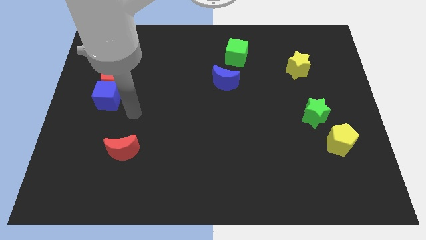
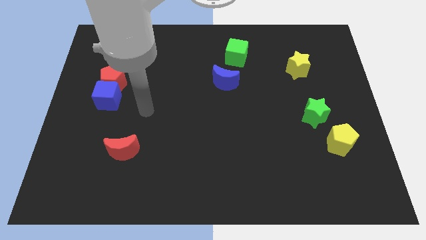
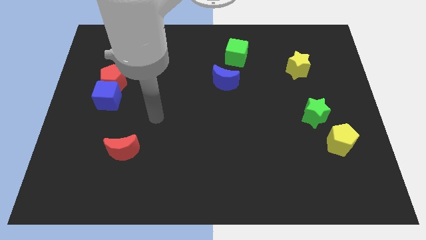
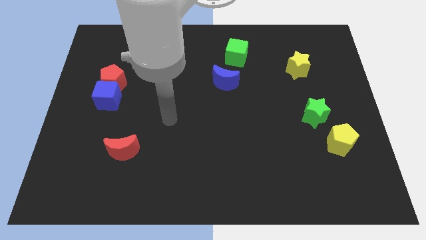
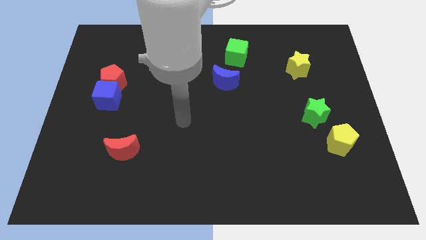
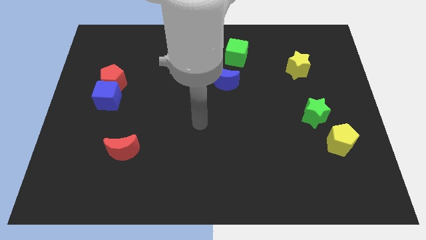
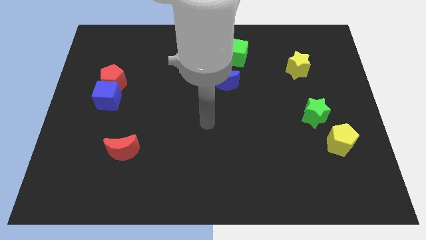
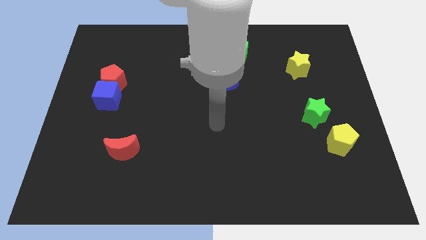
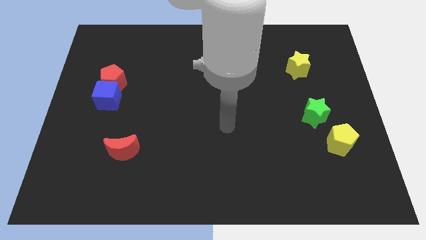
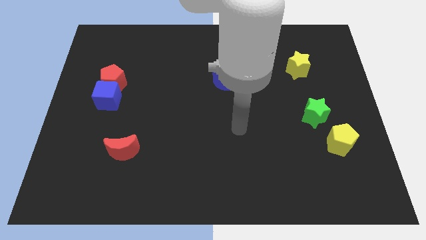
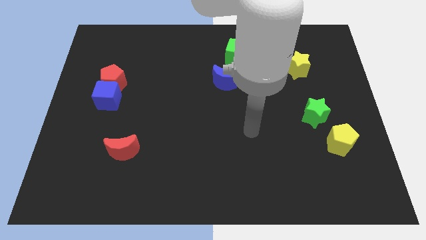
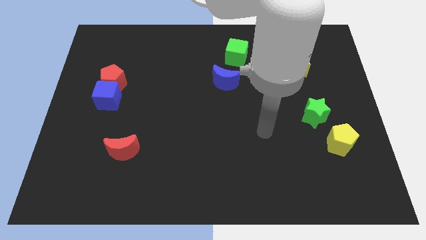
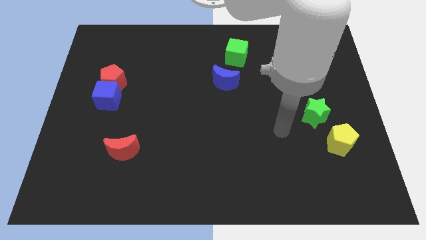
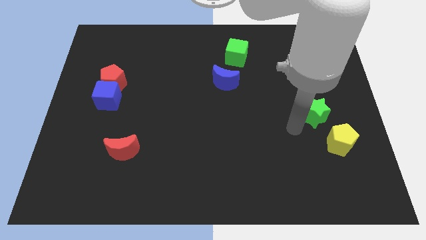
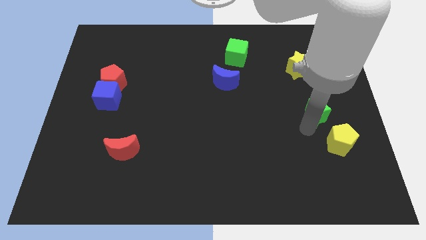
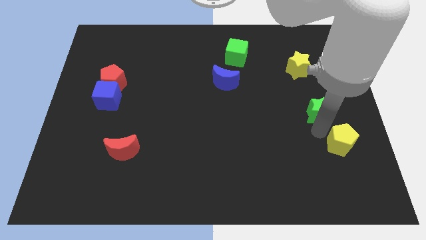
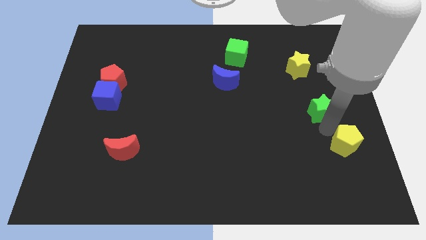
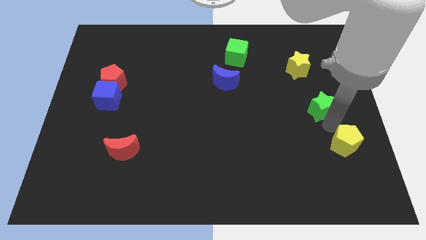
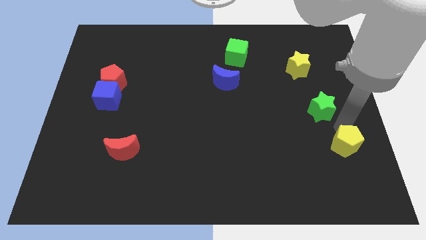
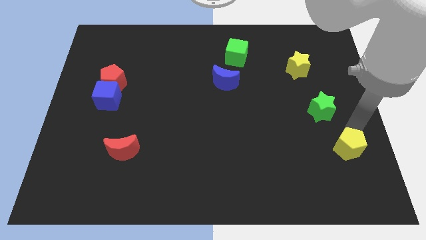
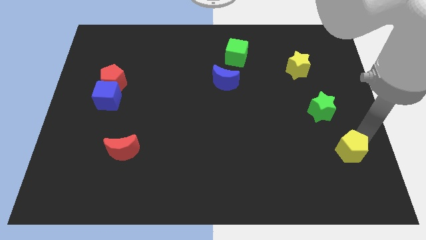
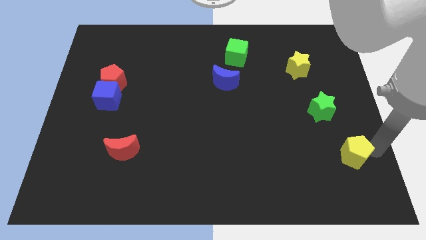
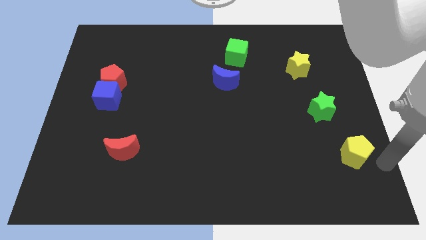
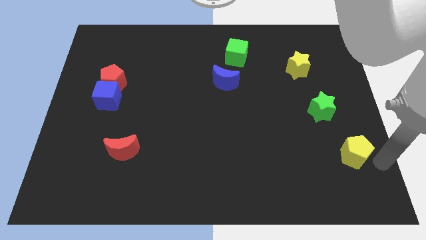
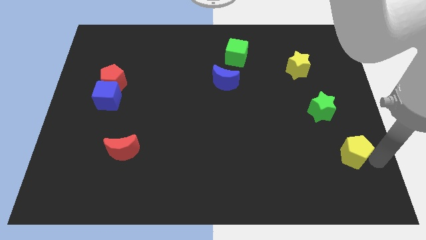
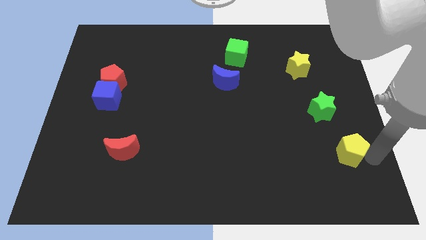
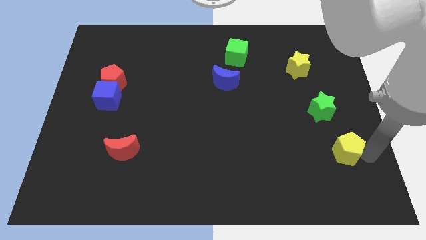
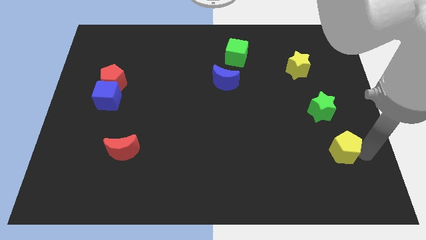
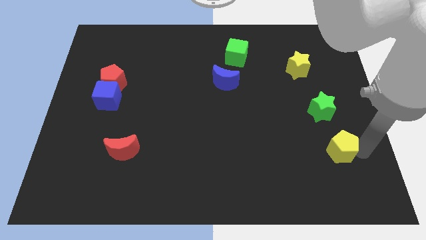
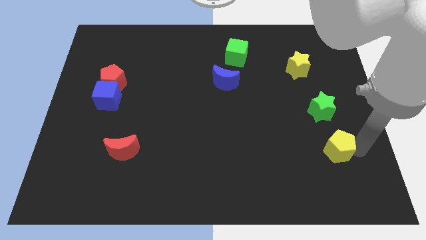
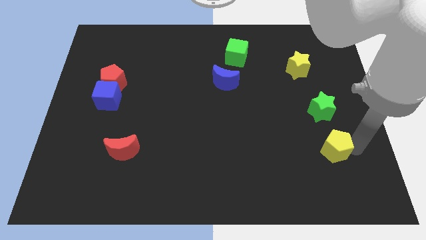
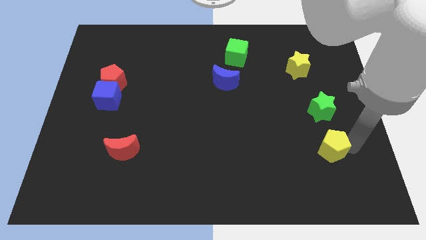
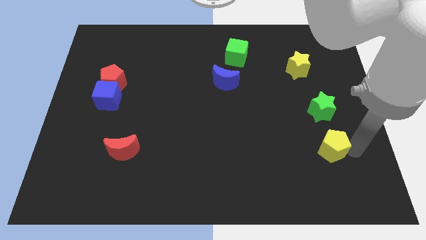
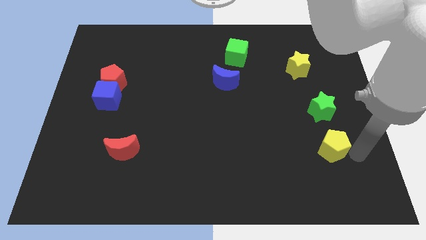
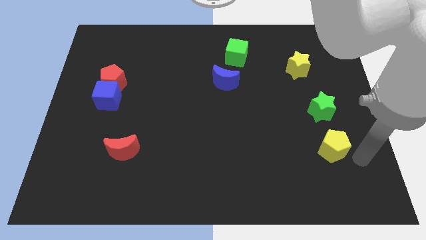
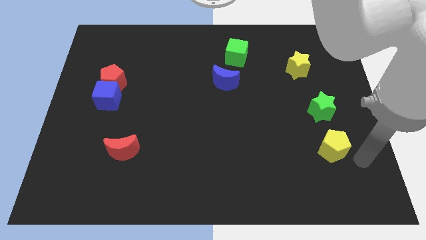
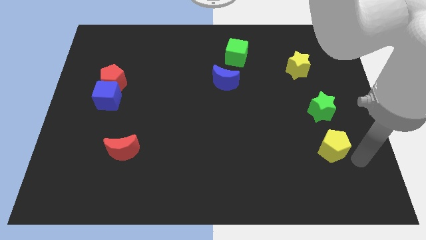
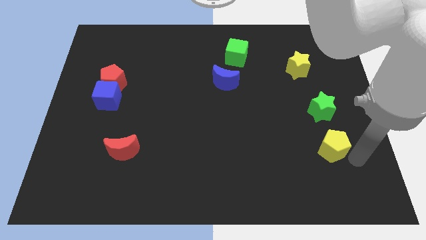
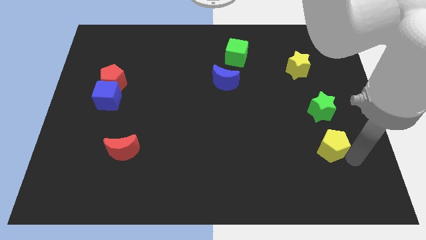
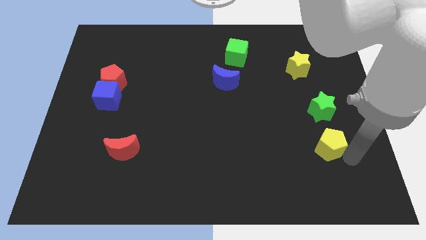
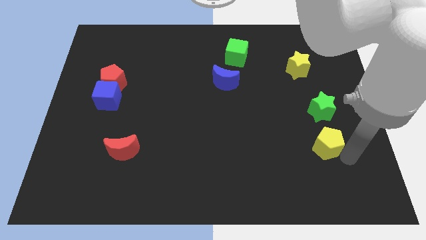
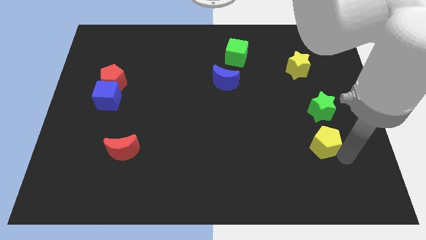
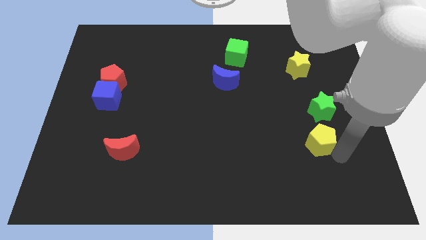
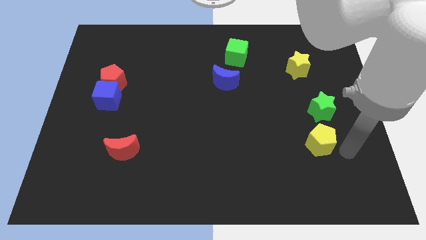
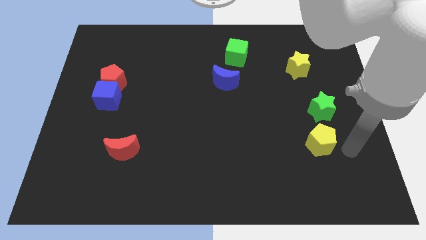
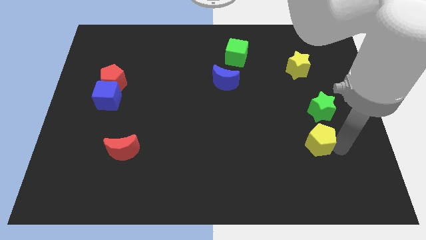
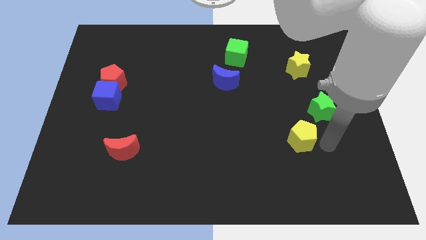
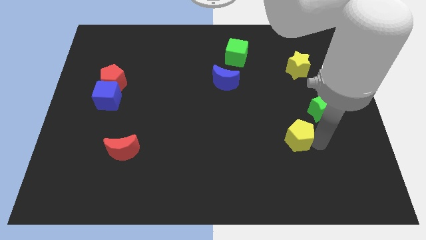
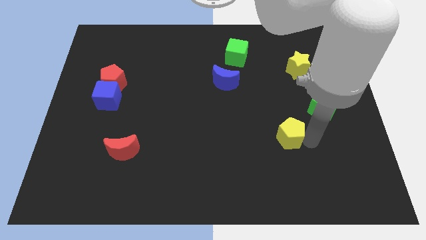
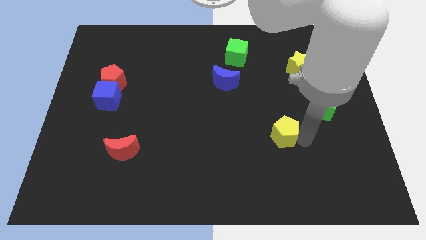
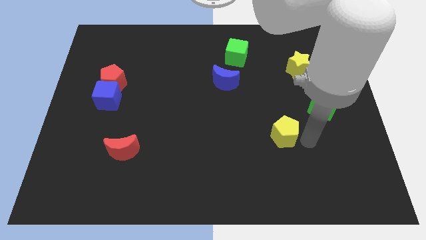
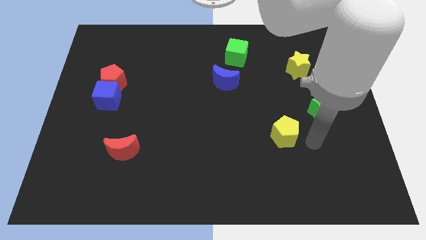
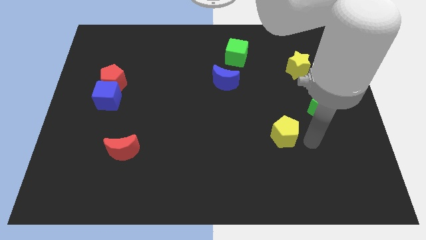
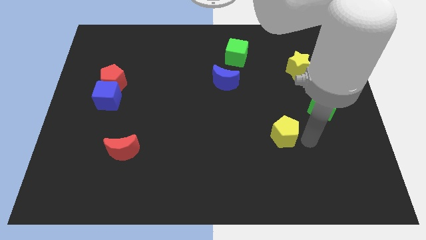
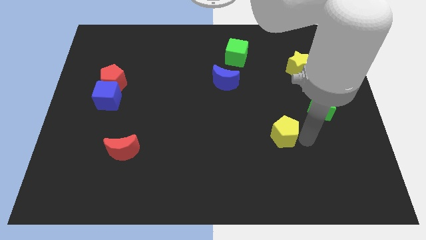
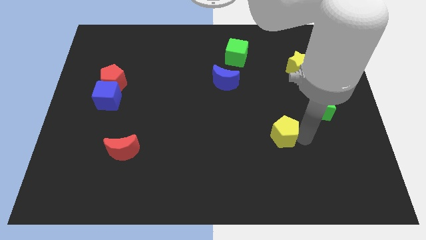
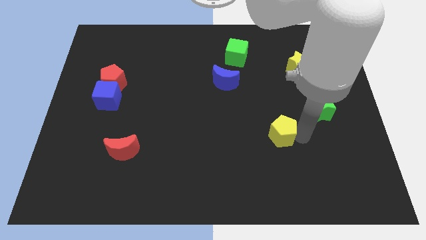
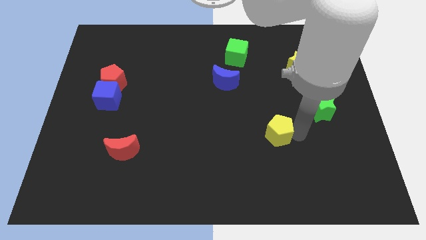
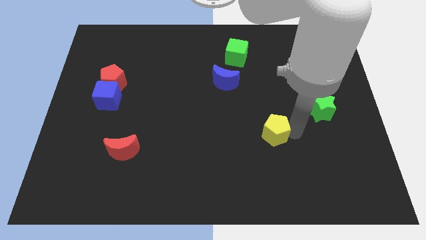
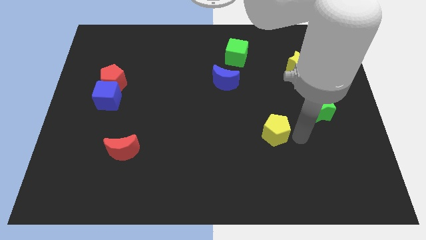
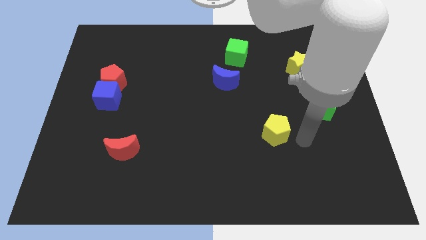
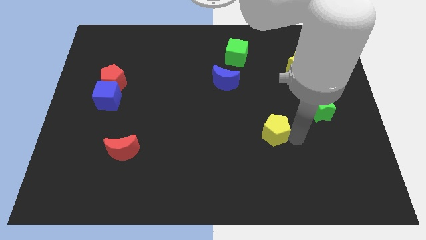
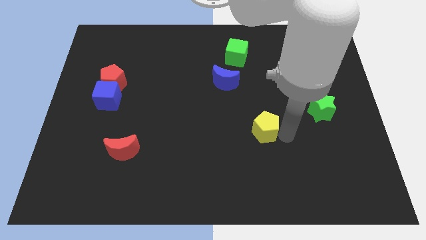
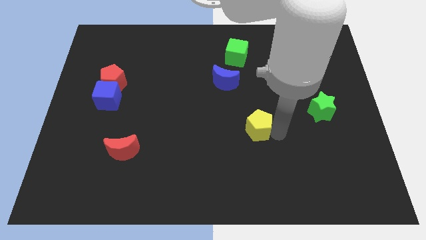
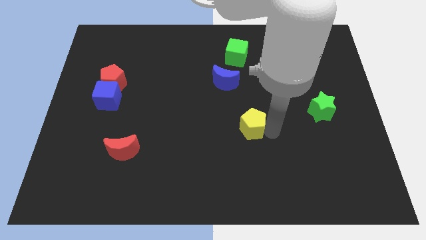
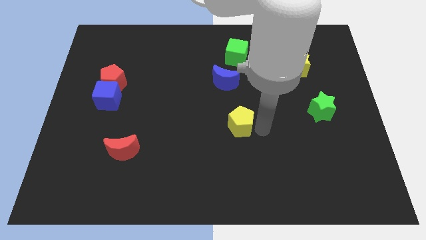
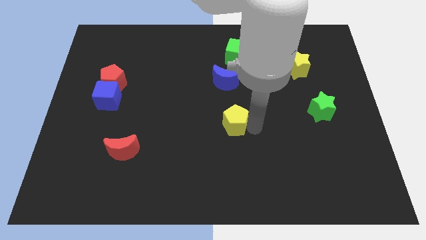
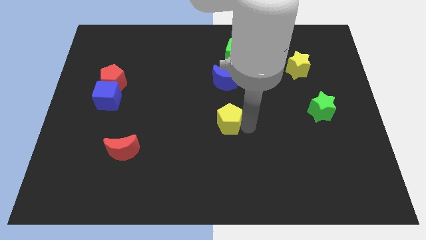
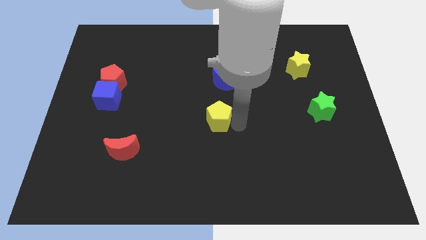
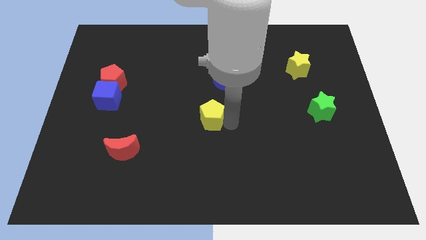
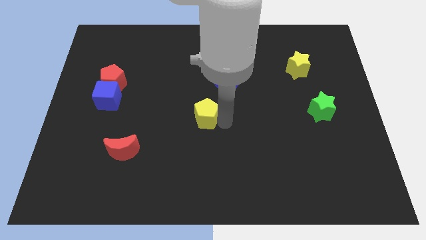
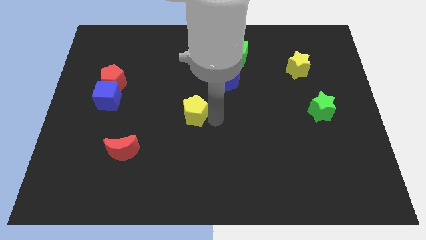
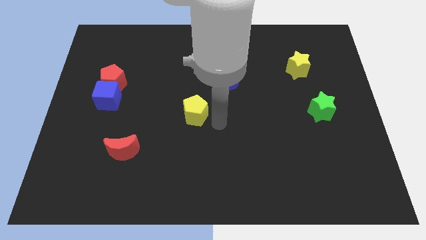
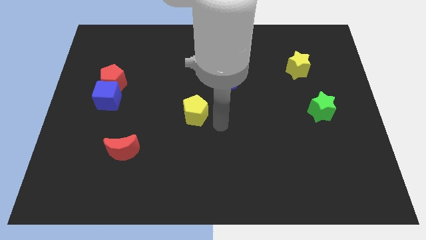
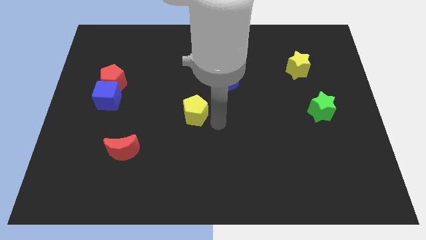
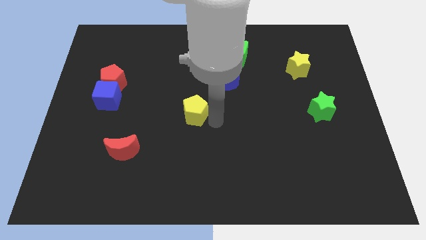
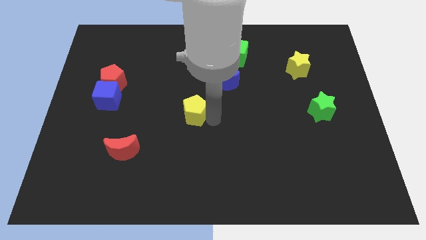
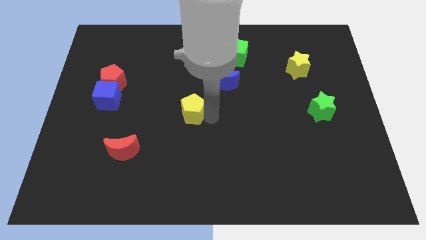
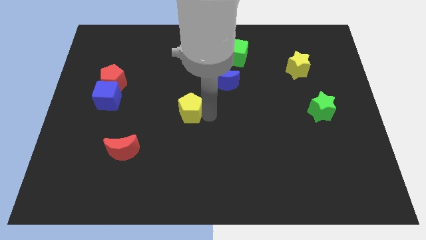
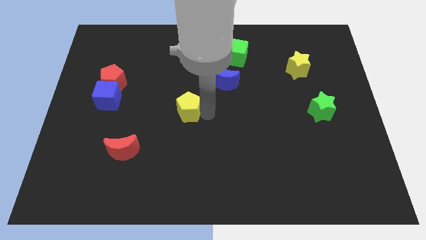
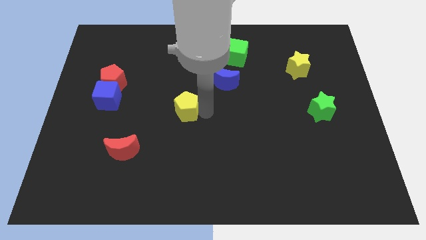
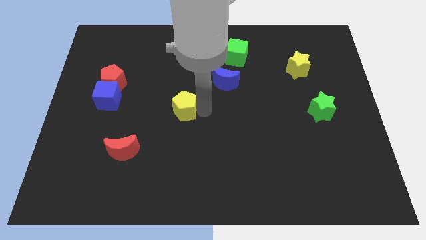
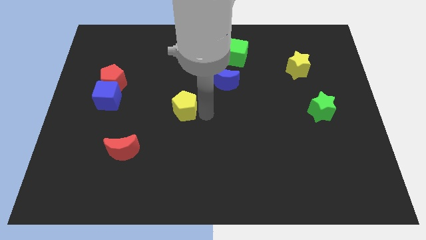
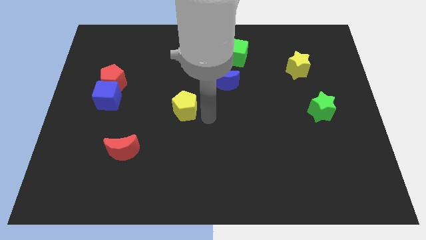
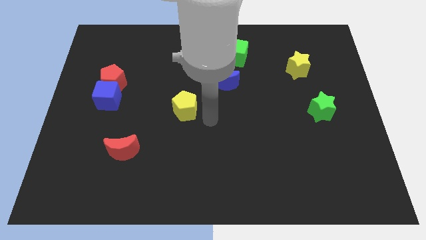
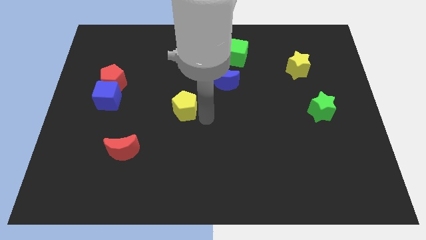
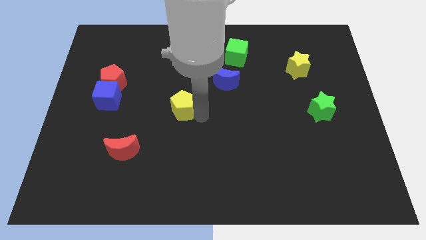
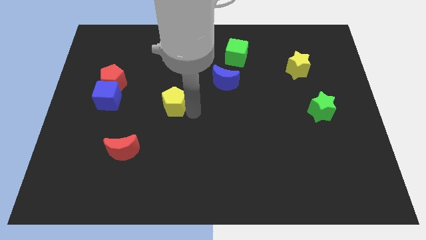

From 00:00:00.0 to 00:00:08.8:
push the yellow pentagon to the right of the blue cube
